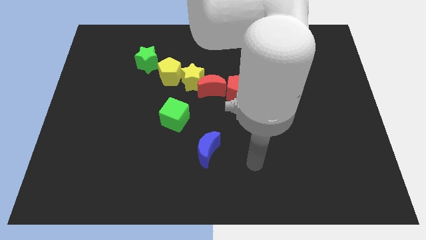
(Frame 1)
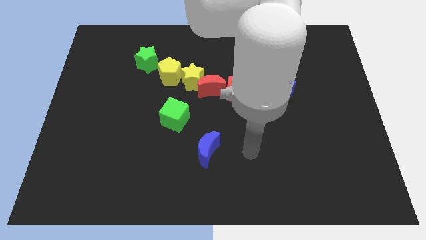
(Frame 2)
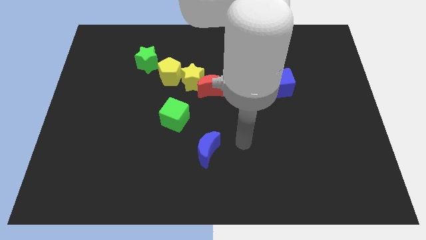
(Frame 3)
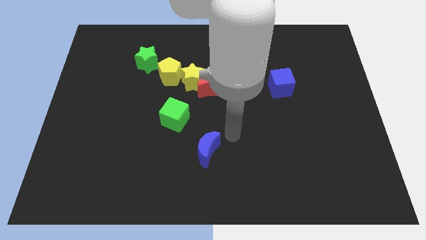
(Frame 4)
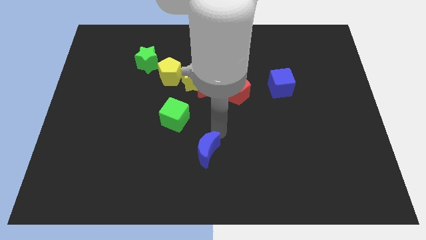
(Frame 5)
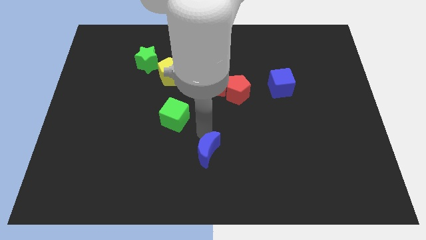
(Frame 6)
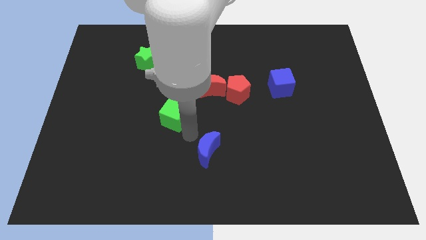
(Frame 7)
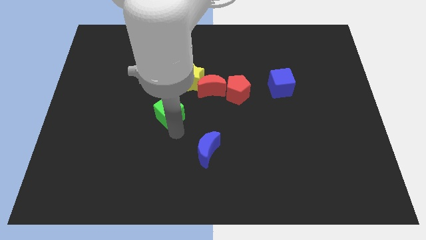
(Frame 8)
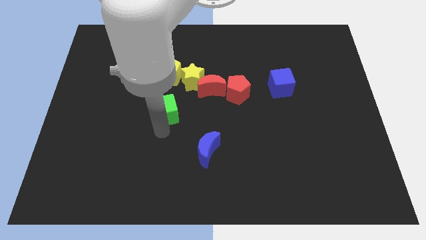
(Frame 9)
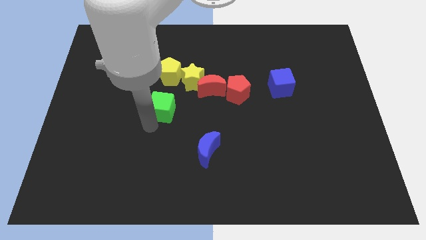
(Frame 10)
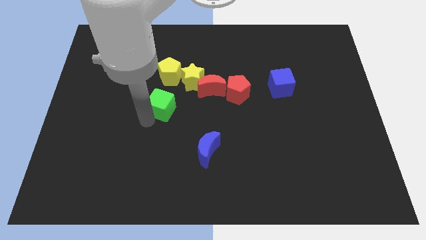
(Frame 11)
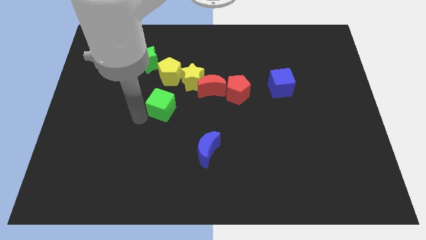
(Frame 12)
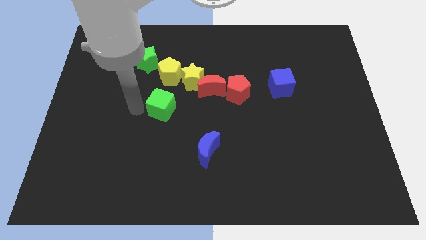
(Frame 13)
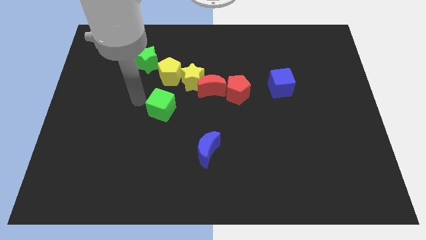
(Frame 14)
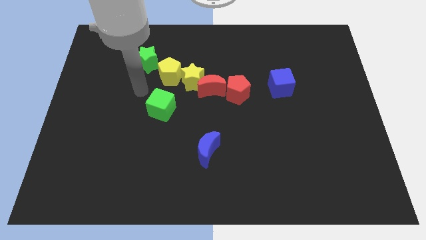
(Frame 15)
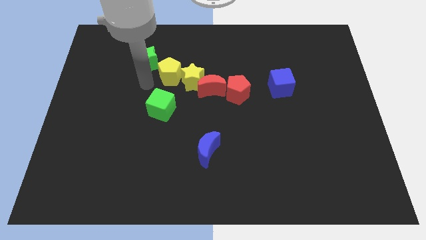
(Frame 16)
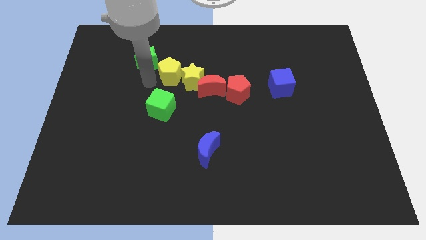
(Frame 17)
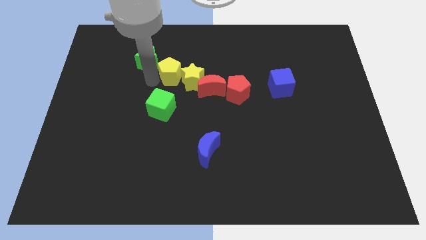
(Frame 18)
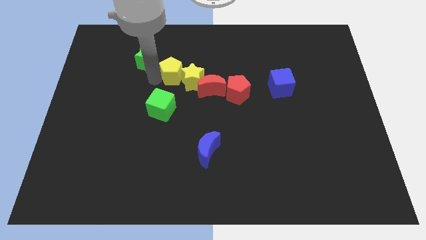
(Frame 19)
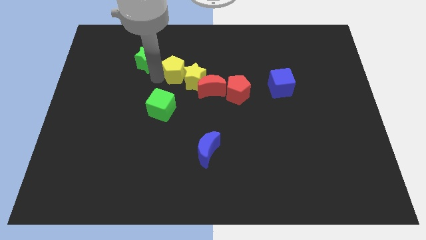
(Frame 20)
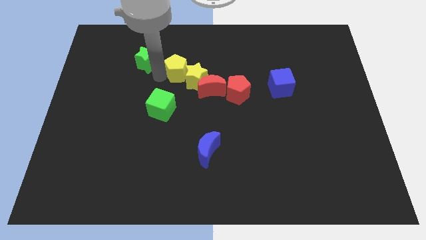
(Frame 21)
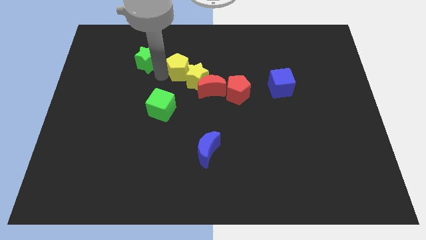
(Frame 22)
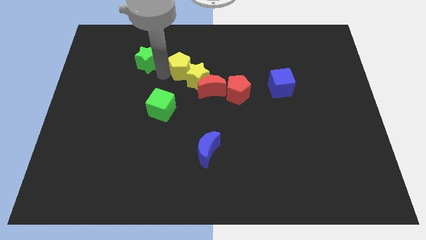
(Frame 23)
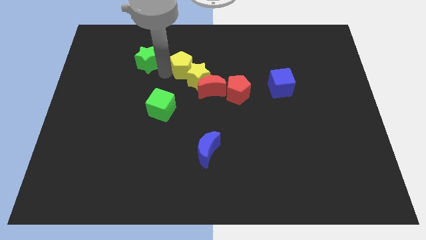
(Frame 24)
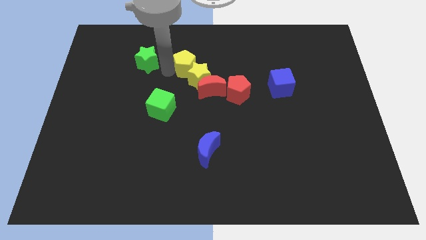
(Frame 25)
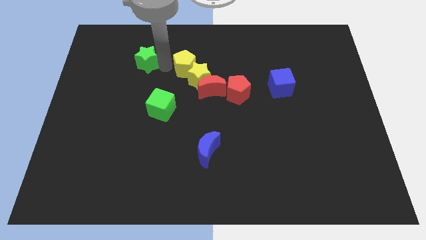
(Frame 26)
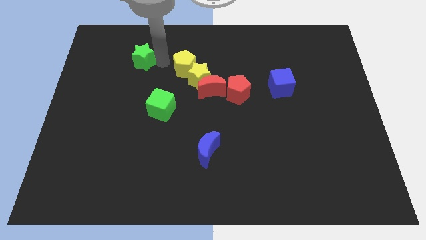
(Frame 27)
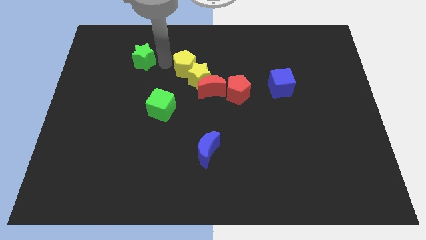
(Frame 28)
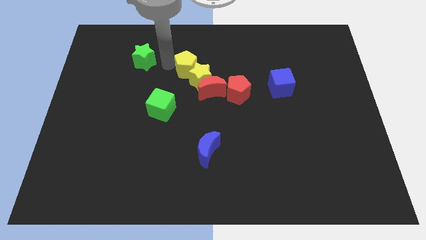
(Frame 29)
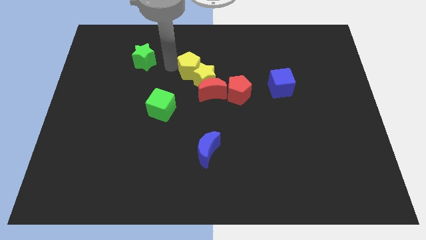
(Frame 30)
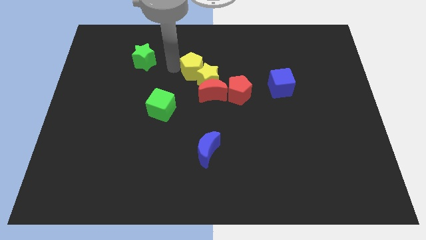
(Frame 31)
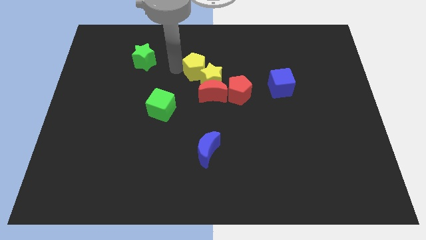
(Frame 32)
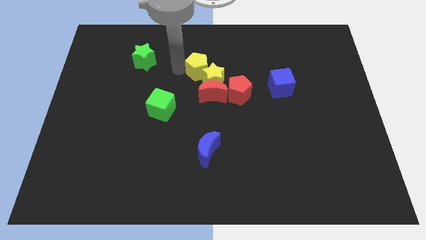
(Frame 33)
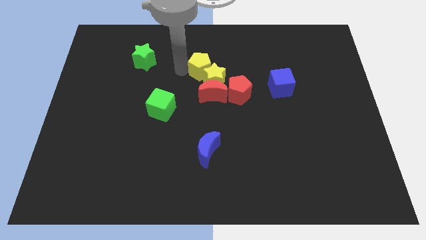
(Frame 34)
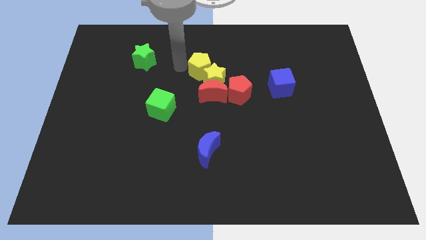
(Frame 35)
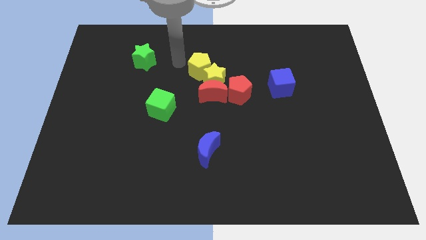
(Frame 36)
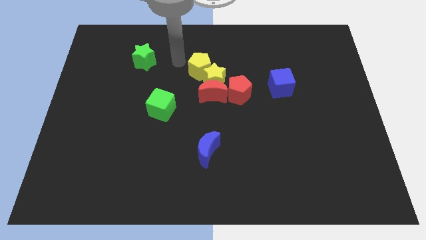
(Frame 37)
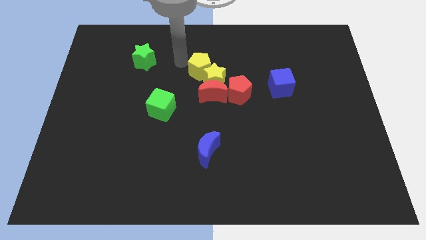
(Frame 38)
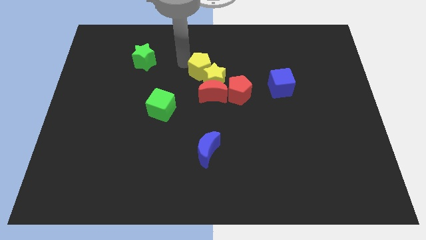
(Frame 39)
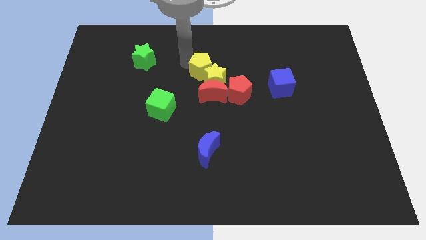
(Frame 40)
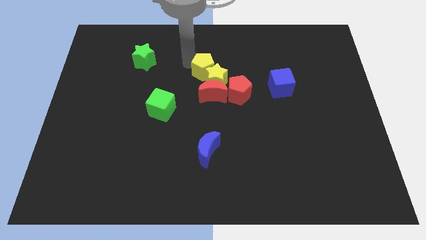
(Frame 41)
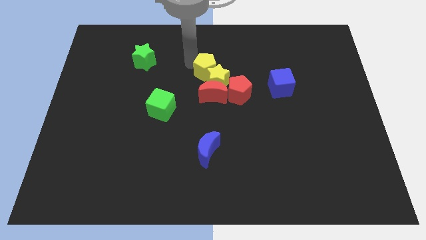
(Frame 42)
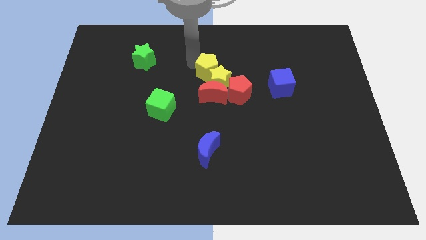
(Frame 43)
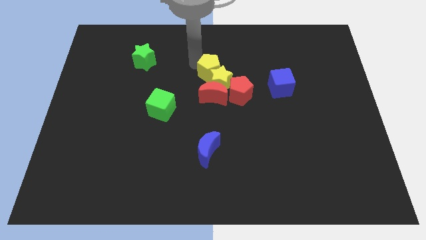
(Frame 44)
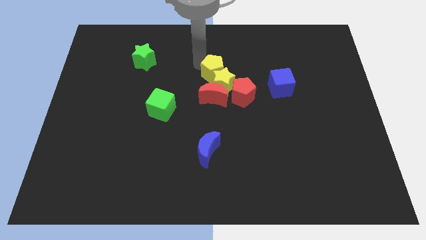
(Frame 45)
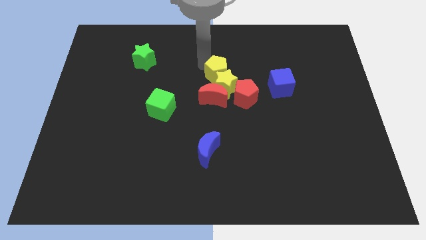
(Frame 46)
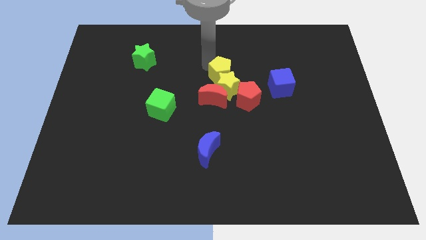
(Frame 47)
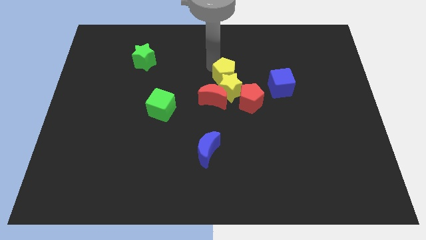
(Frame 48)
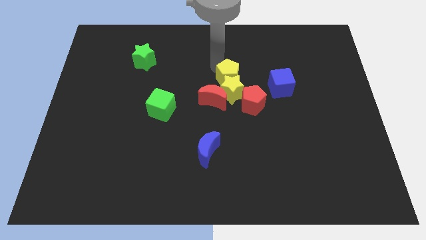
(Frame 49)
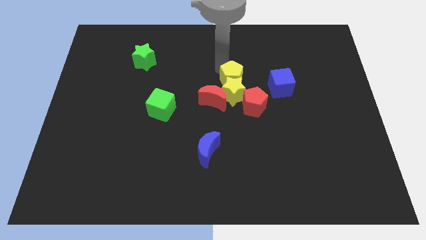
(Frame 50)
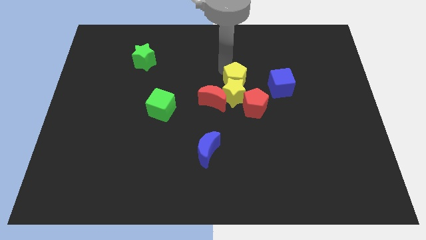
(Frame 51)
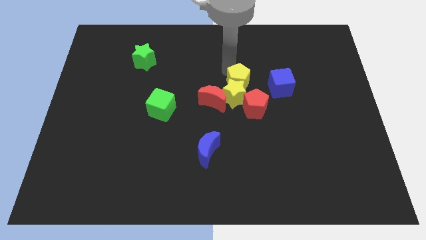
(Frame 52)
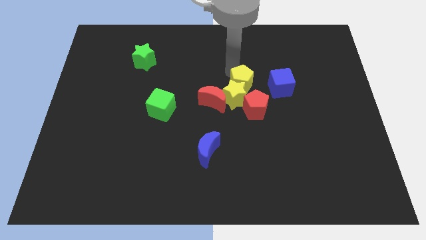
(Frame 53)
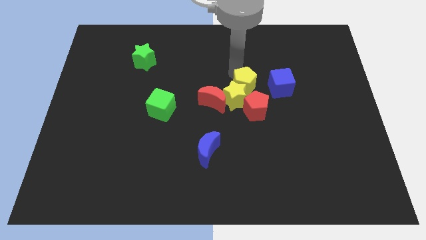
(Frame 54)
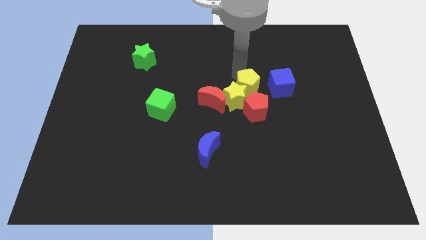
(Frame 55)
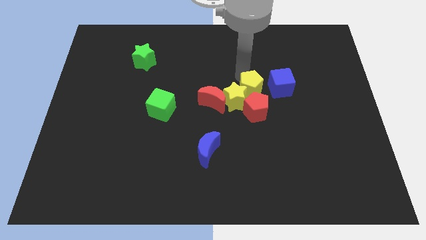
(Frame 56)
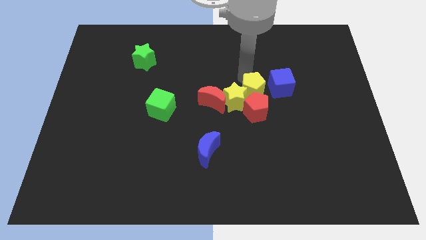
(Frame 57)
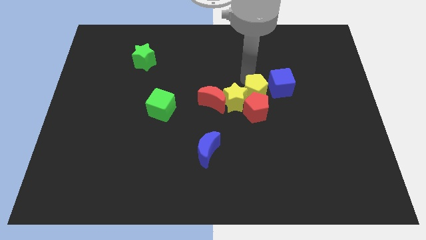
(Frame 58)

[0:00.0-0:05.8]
slide the yellow pentagon next to the red pentagon

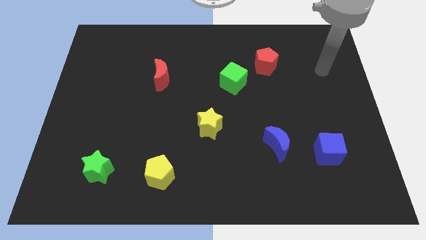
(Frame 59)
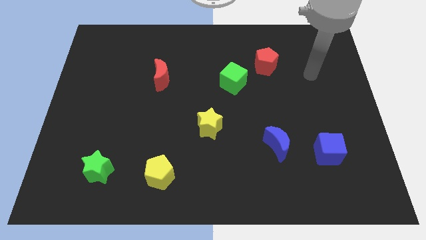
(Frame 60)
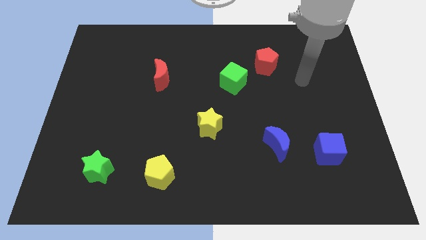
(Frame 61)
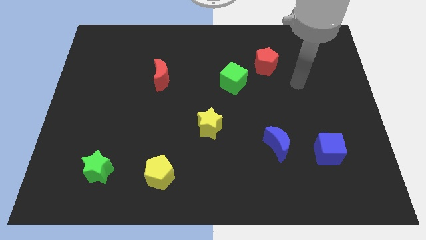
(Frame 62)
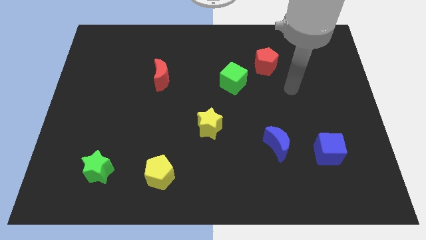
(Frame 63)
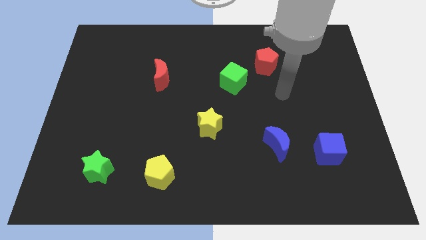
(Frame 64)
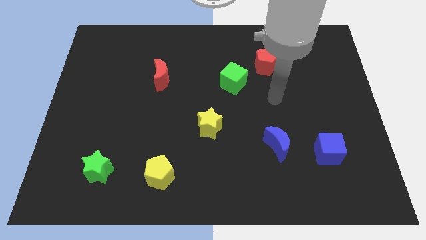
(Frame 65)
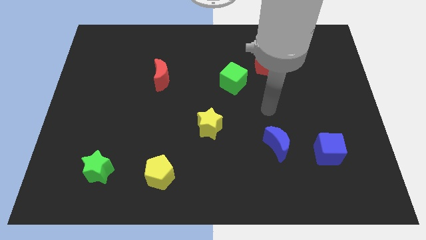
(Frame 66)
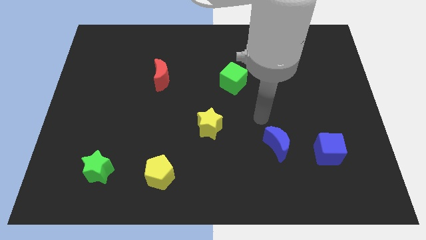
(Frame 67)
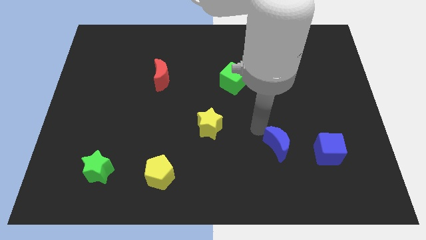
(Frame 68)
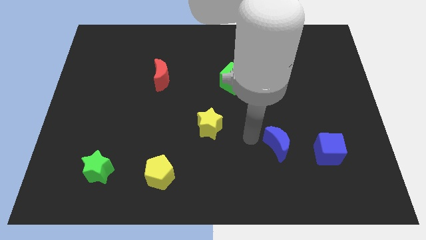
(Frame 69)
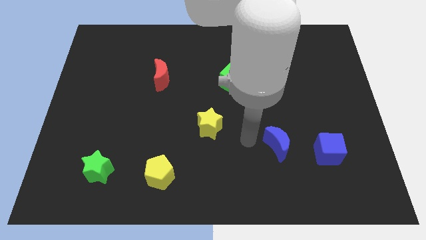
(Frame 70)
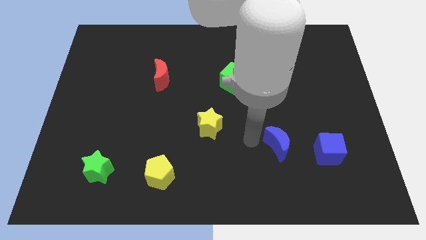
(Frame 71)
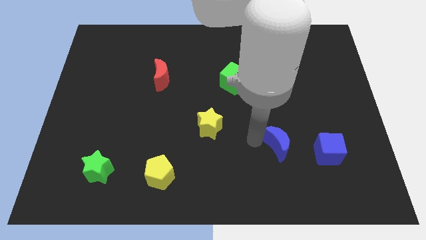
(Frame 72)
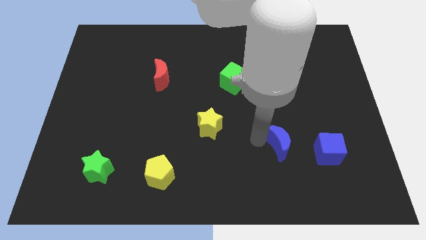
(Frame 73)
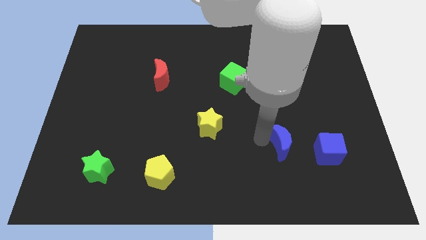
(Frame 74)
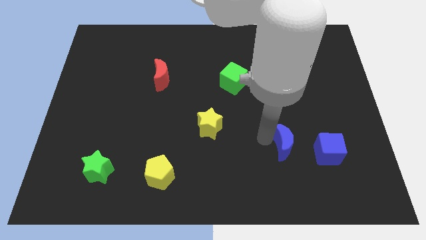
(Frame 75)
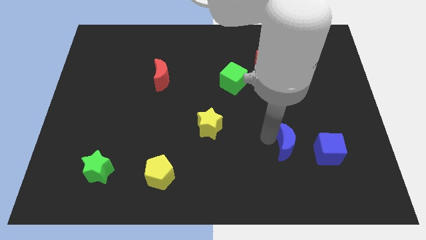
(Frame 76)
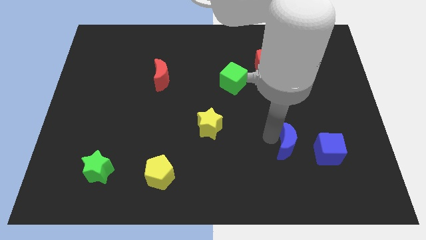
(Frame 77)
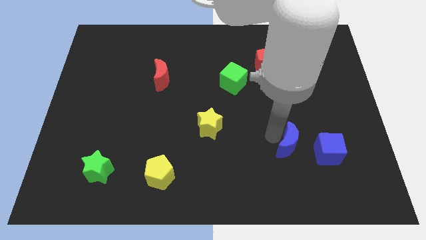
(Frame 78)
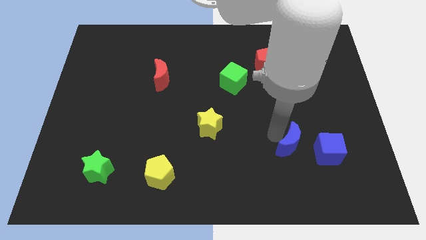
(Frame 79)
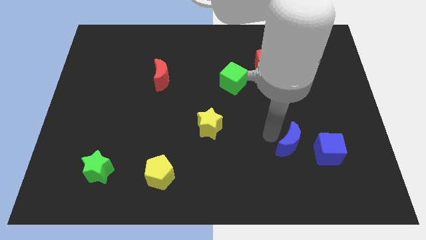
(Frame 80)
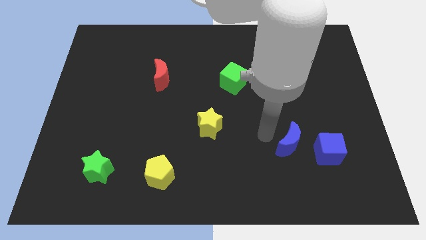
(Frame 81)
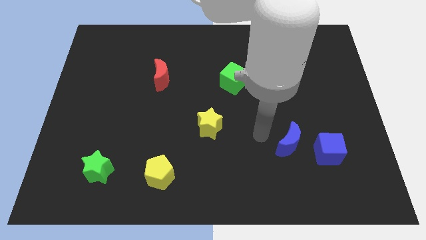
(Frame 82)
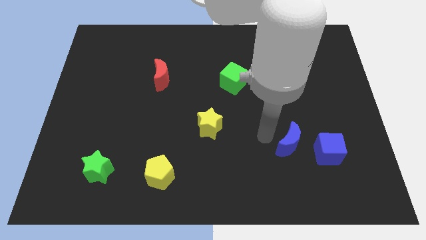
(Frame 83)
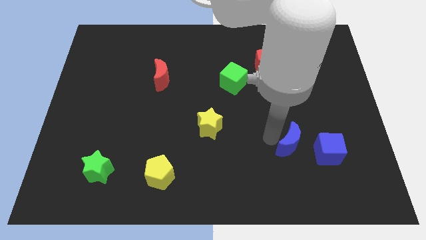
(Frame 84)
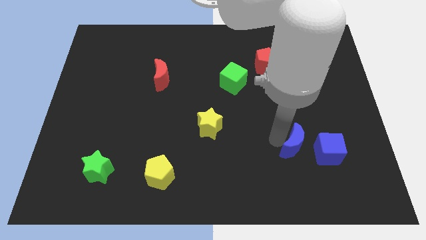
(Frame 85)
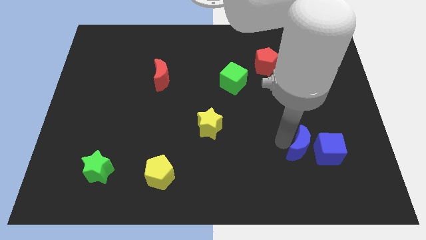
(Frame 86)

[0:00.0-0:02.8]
push the blue moon to the blue cube
